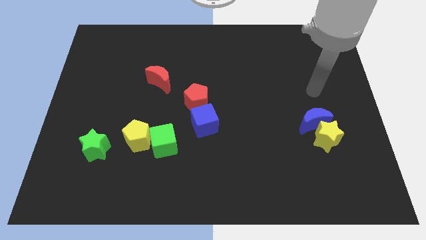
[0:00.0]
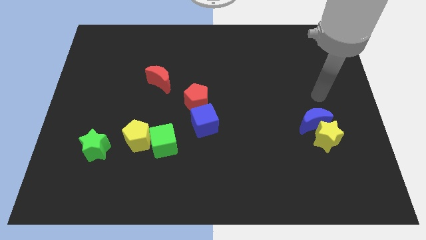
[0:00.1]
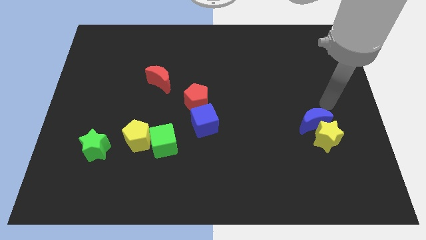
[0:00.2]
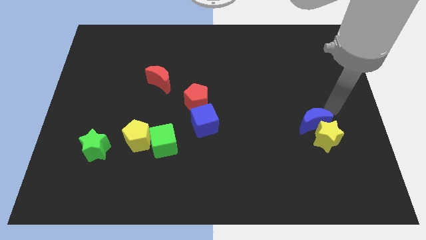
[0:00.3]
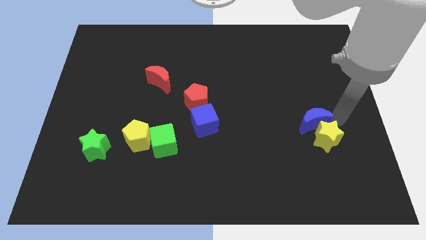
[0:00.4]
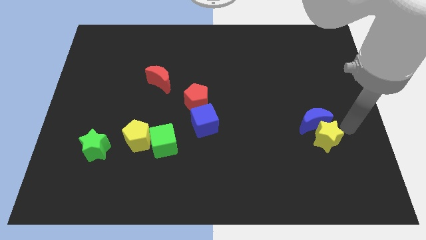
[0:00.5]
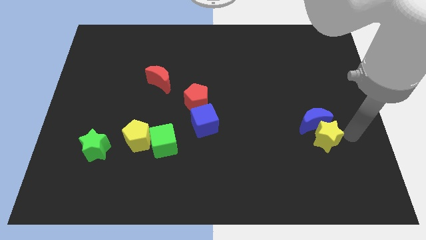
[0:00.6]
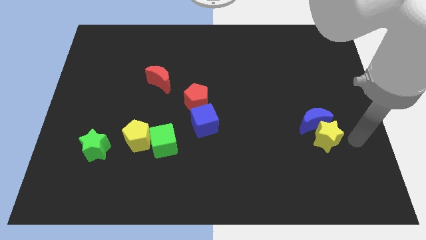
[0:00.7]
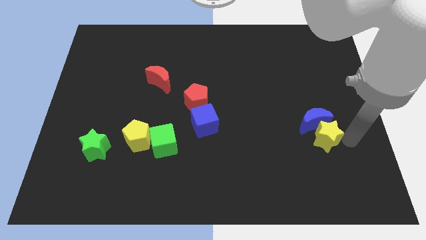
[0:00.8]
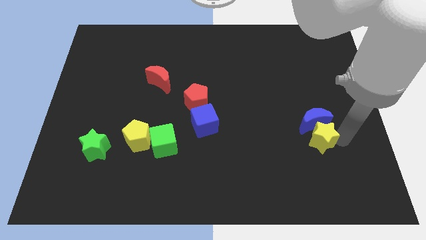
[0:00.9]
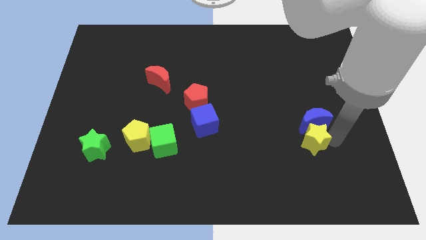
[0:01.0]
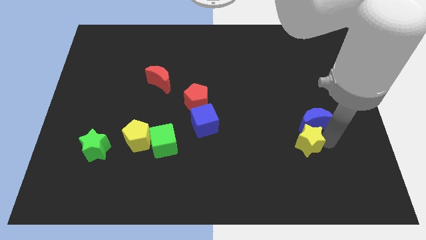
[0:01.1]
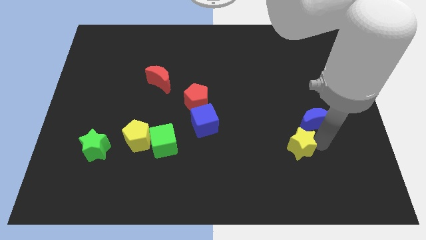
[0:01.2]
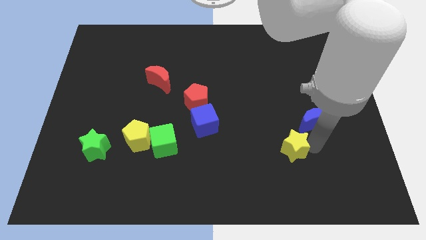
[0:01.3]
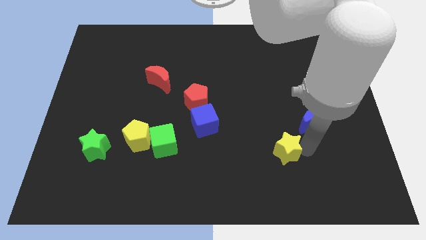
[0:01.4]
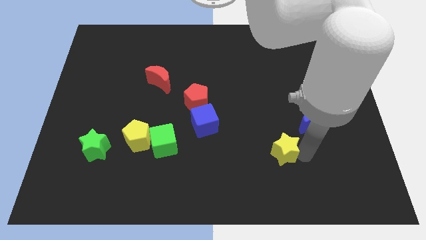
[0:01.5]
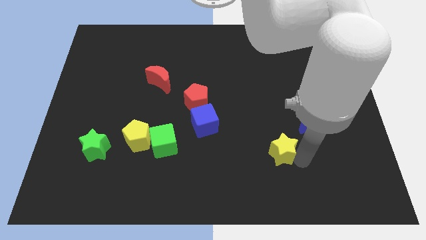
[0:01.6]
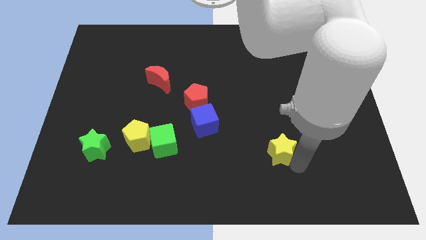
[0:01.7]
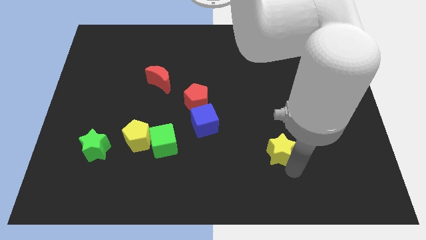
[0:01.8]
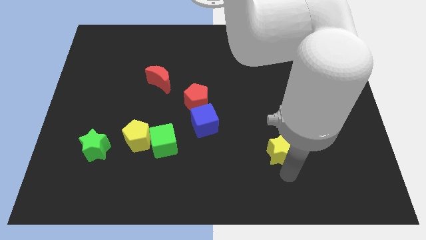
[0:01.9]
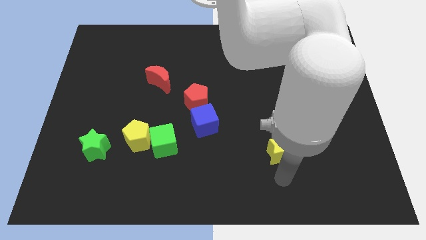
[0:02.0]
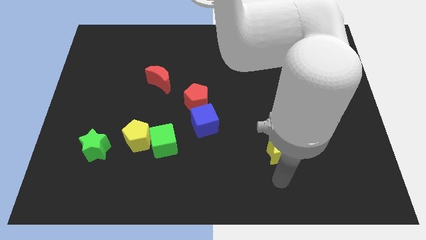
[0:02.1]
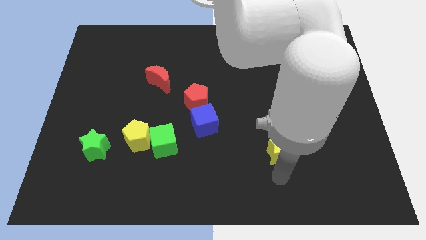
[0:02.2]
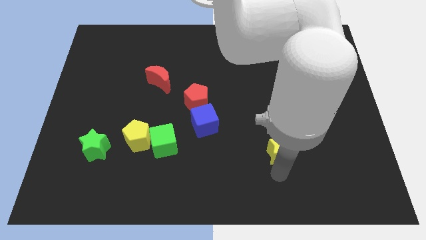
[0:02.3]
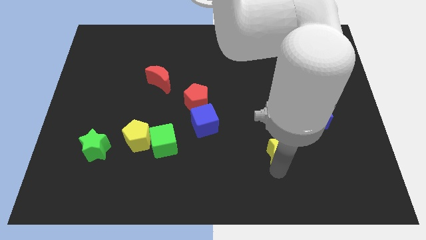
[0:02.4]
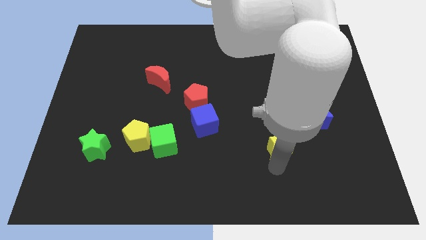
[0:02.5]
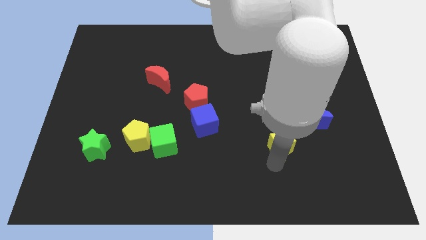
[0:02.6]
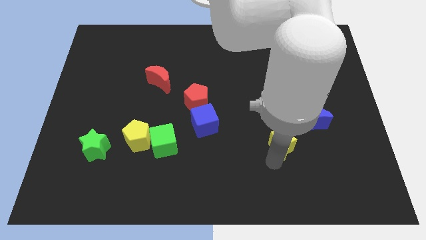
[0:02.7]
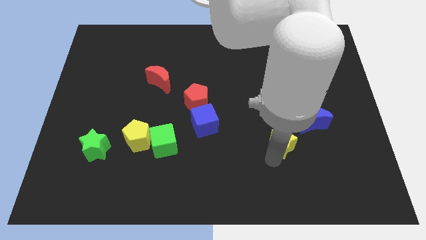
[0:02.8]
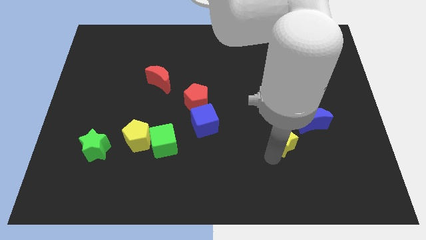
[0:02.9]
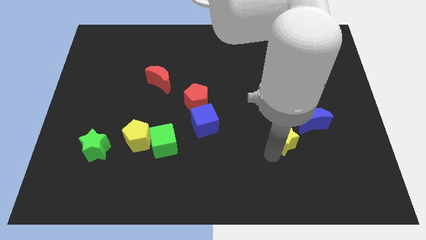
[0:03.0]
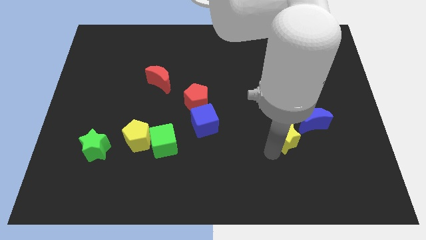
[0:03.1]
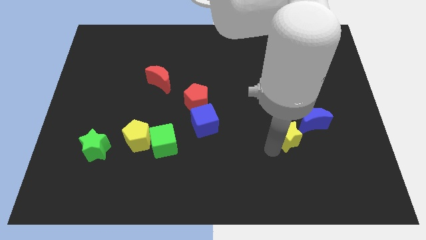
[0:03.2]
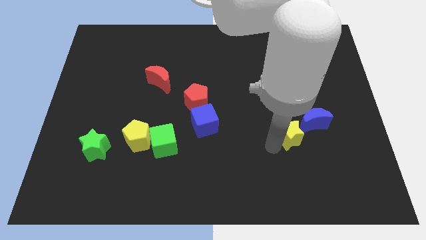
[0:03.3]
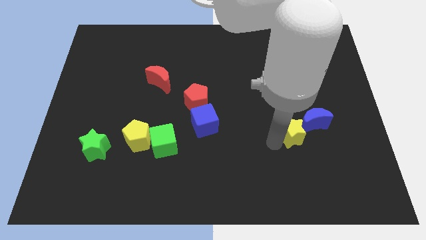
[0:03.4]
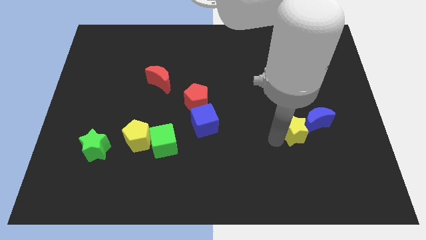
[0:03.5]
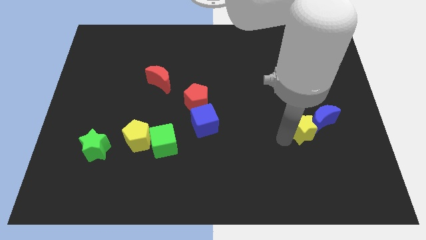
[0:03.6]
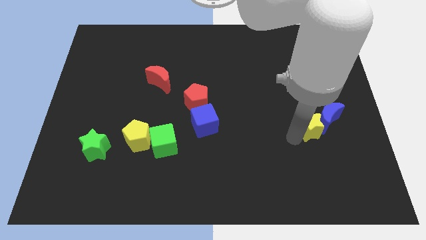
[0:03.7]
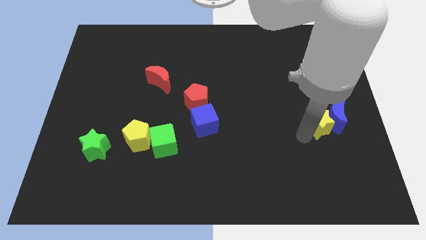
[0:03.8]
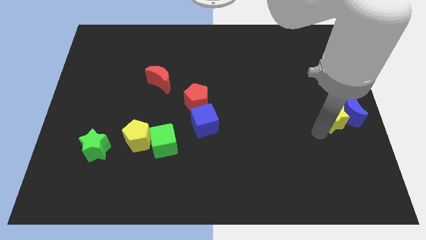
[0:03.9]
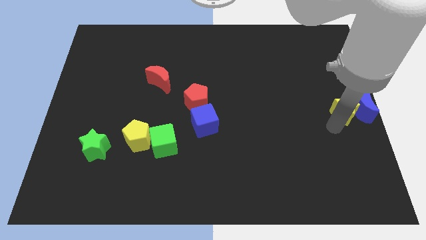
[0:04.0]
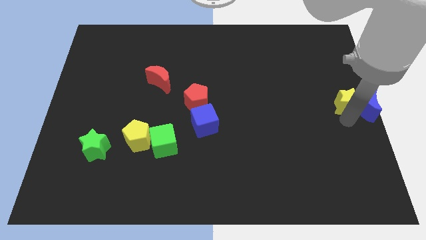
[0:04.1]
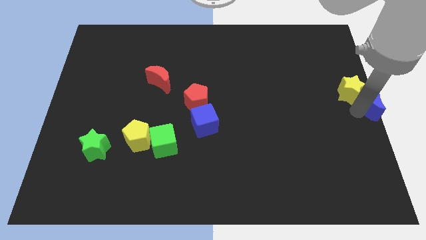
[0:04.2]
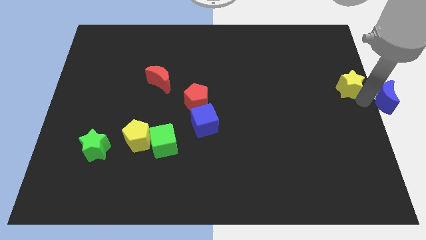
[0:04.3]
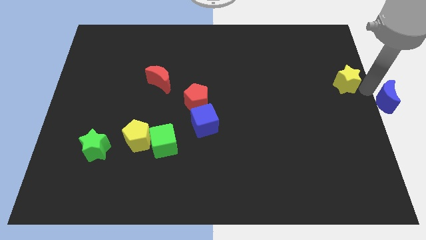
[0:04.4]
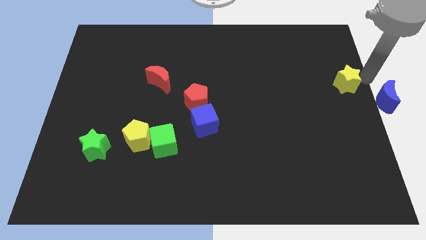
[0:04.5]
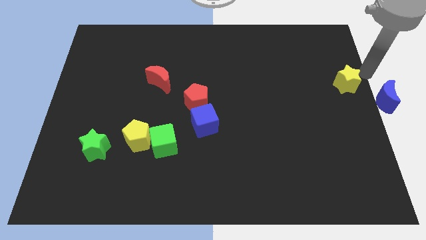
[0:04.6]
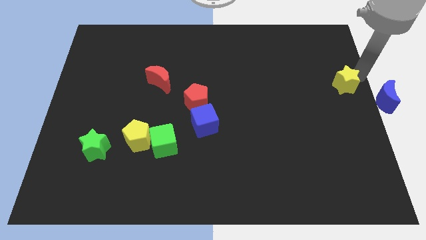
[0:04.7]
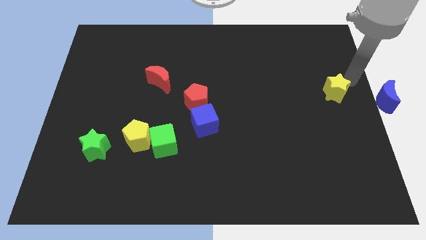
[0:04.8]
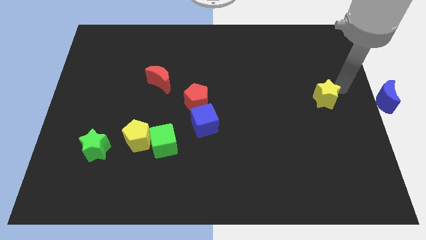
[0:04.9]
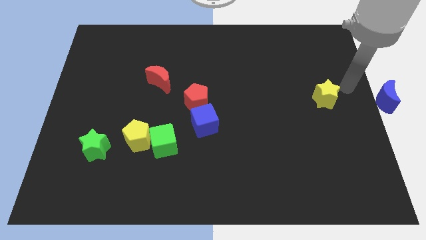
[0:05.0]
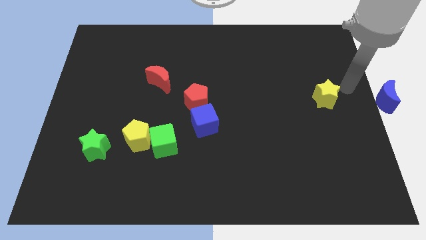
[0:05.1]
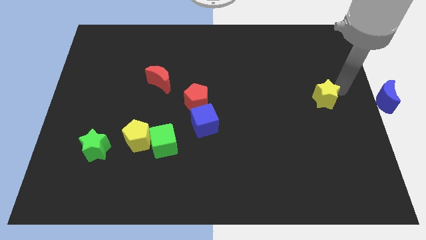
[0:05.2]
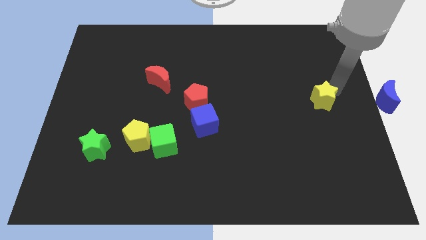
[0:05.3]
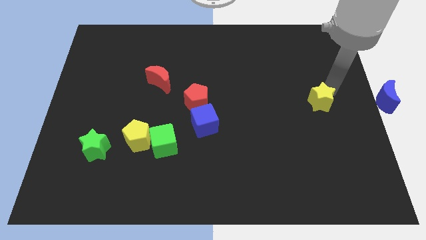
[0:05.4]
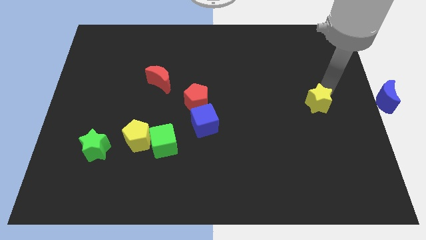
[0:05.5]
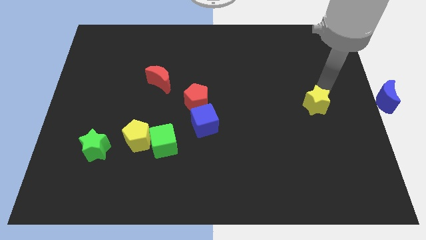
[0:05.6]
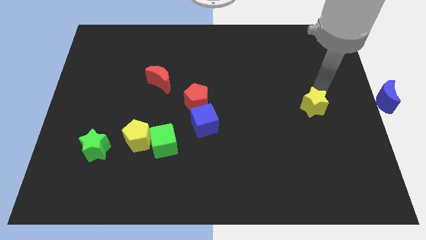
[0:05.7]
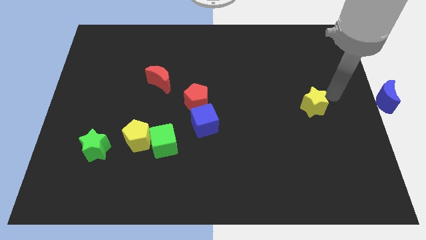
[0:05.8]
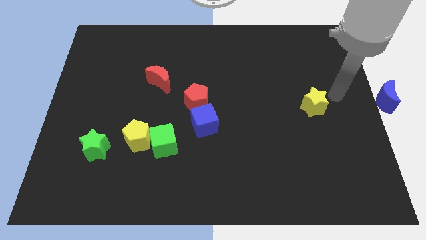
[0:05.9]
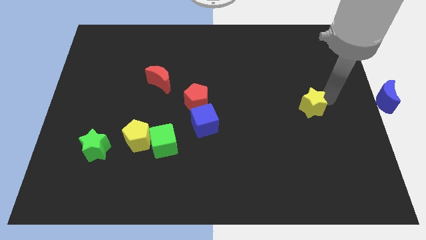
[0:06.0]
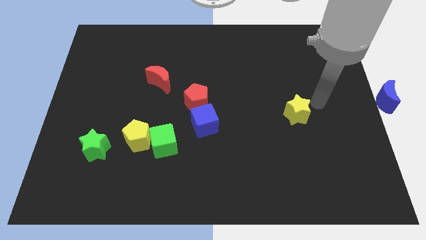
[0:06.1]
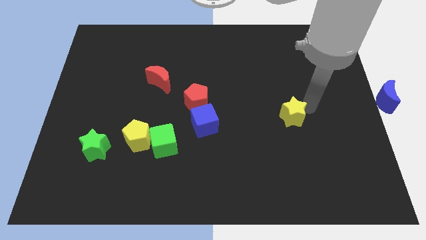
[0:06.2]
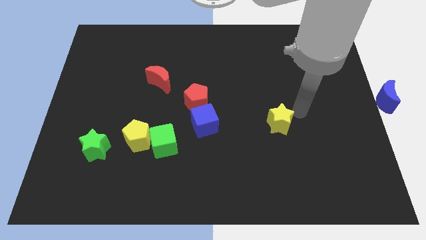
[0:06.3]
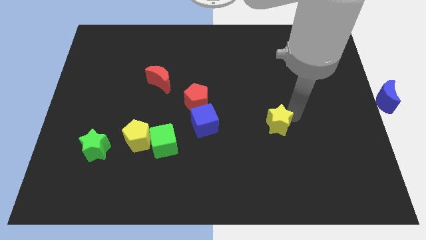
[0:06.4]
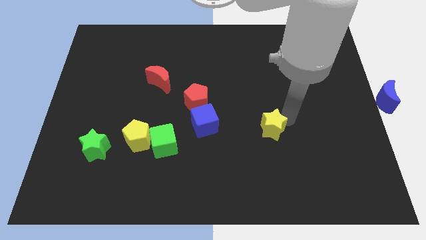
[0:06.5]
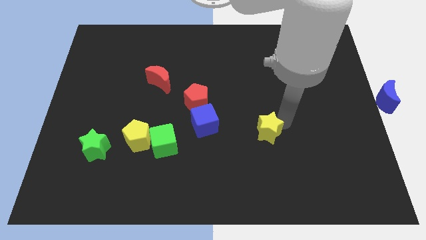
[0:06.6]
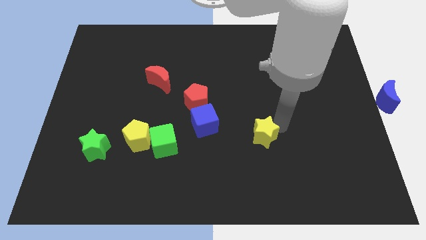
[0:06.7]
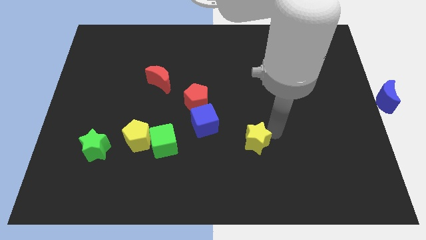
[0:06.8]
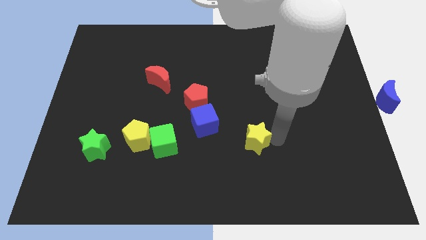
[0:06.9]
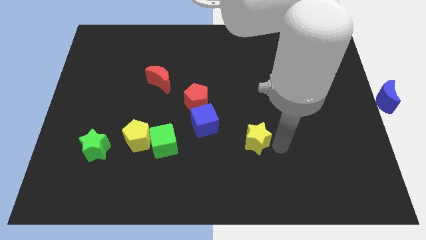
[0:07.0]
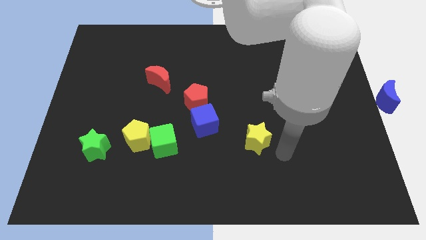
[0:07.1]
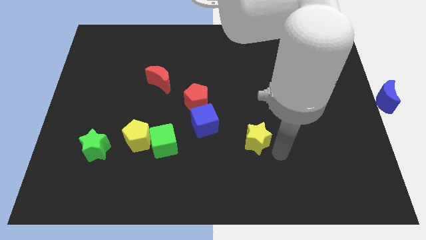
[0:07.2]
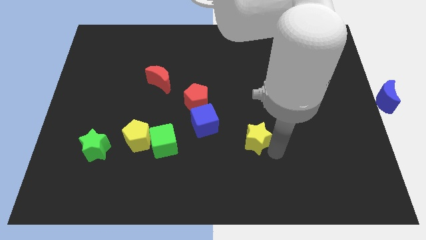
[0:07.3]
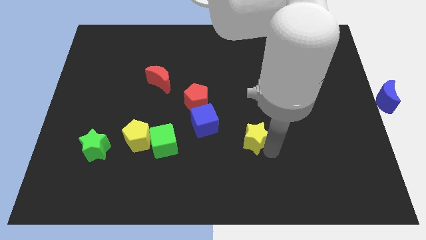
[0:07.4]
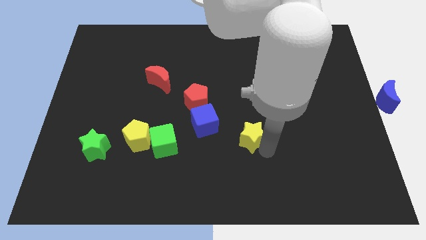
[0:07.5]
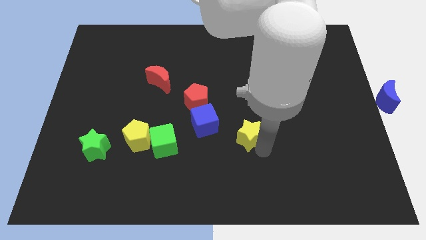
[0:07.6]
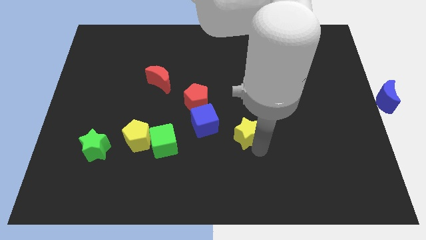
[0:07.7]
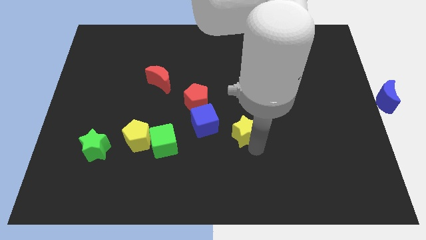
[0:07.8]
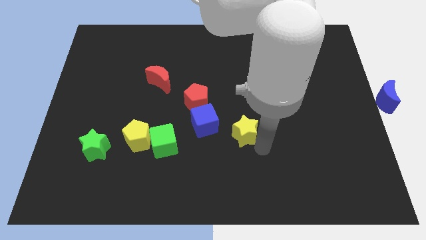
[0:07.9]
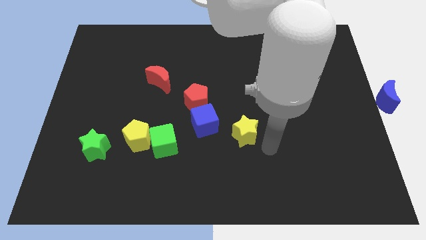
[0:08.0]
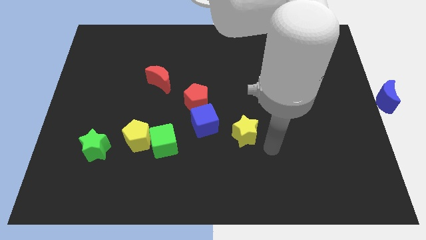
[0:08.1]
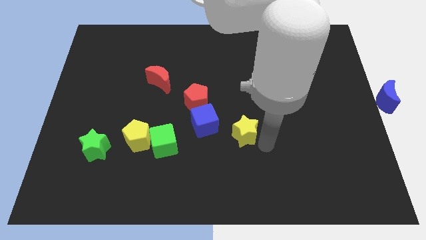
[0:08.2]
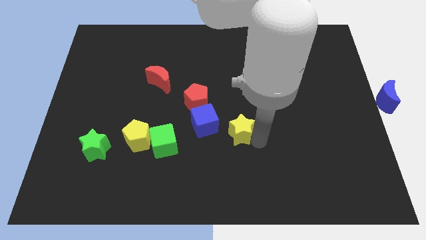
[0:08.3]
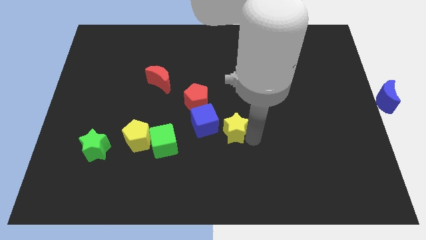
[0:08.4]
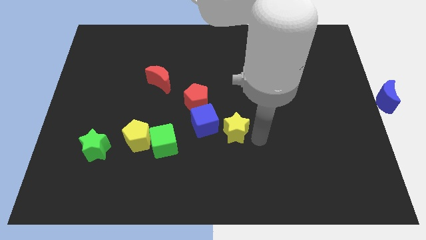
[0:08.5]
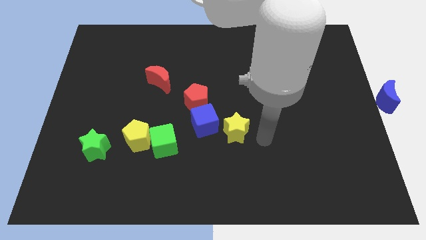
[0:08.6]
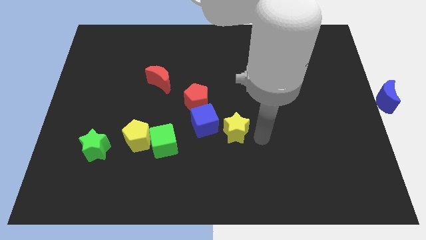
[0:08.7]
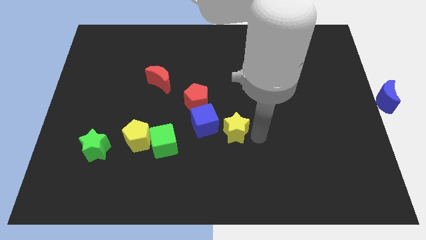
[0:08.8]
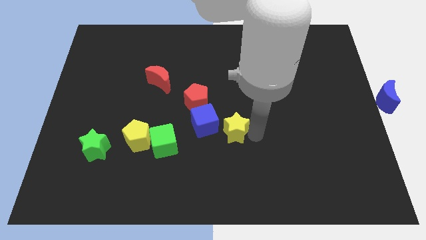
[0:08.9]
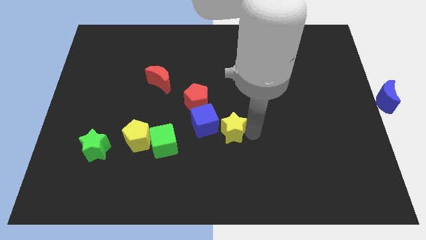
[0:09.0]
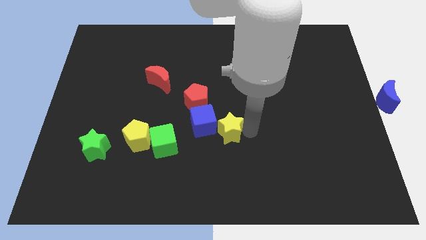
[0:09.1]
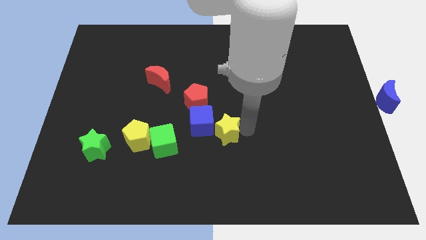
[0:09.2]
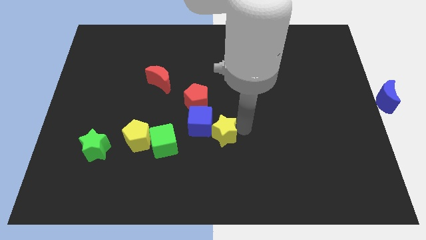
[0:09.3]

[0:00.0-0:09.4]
put the yellow star towards the blue cube
